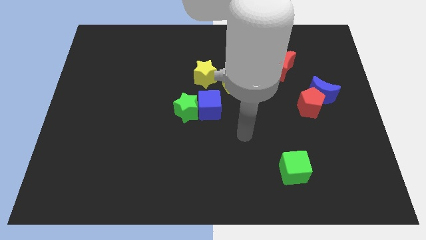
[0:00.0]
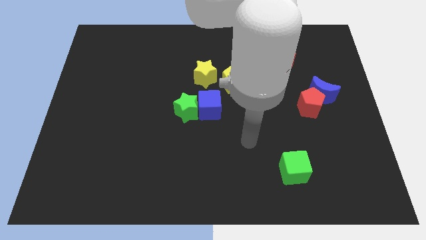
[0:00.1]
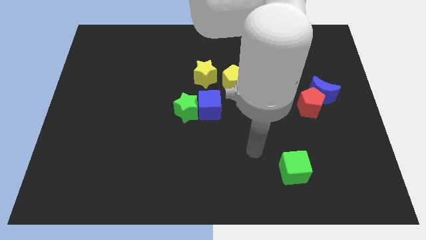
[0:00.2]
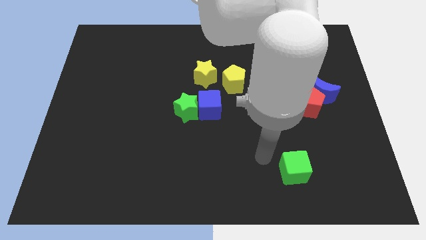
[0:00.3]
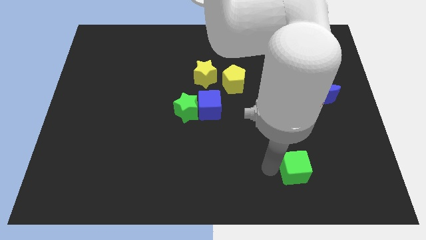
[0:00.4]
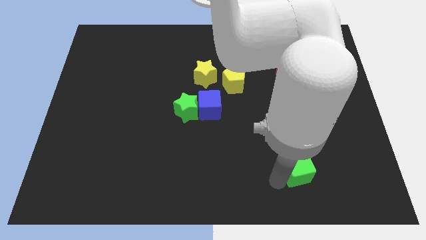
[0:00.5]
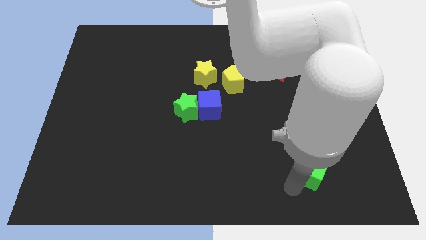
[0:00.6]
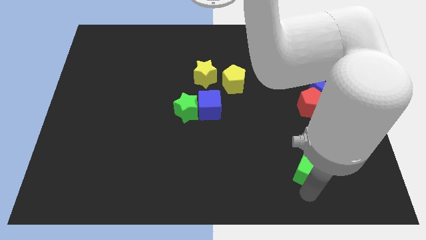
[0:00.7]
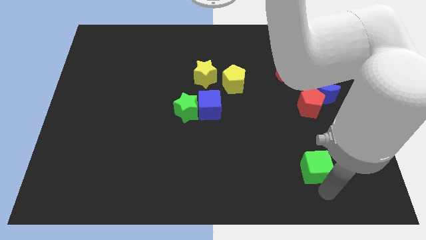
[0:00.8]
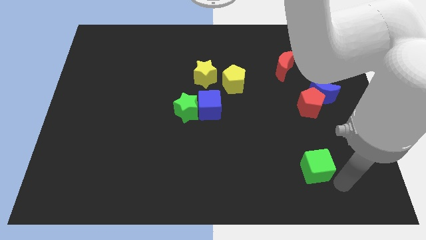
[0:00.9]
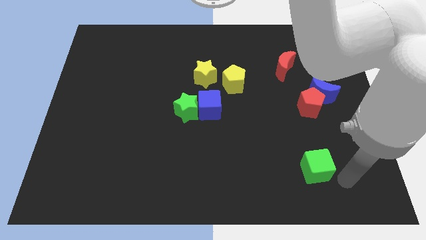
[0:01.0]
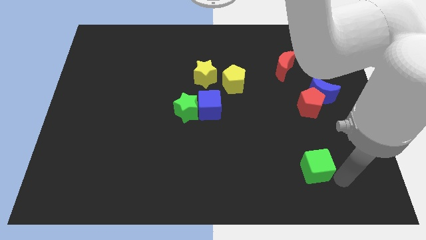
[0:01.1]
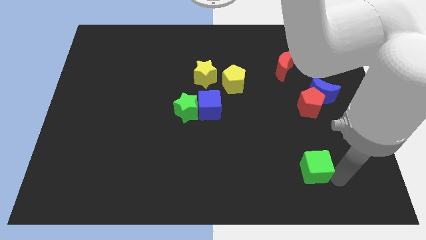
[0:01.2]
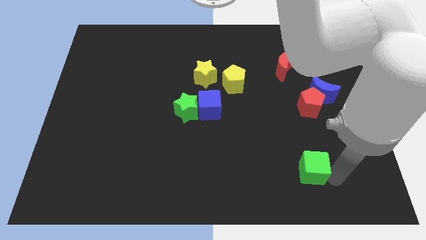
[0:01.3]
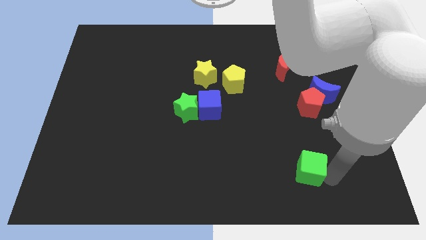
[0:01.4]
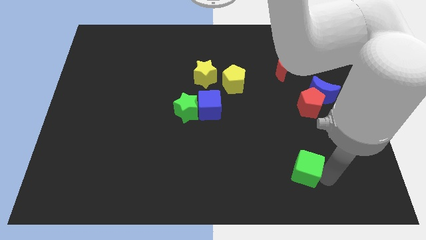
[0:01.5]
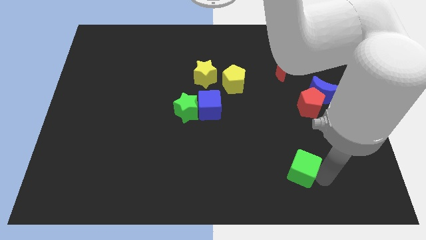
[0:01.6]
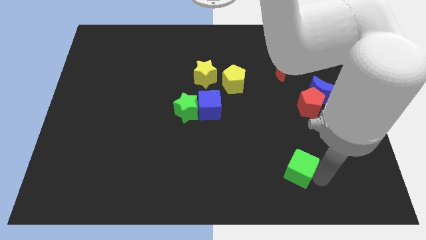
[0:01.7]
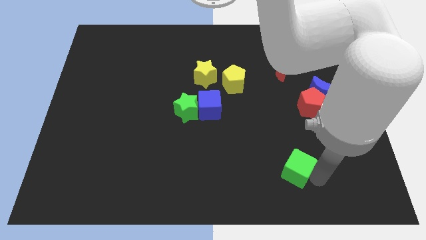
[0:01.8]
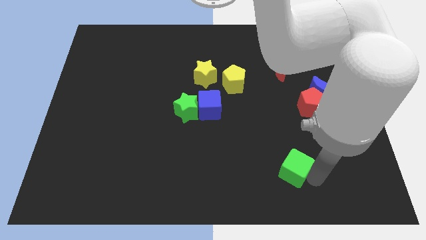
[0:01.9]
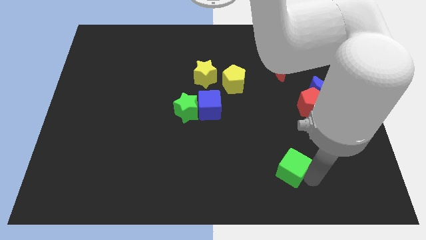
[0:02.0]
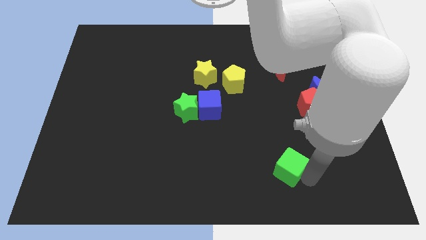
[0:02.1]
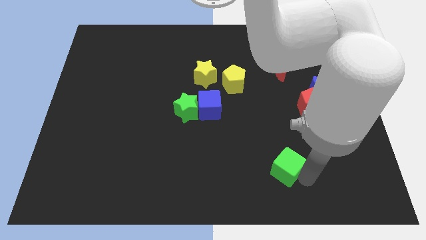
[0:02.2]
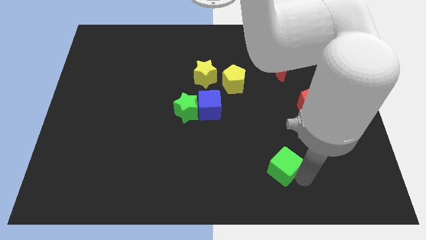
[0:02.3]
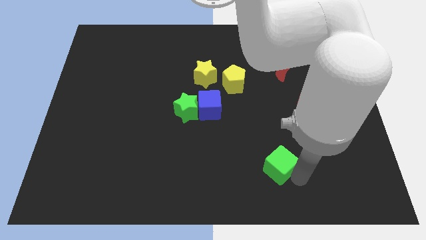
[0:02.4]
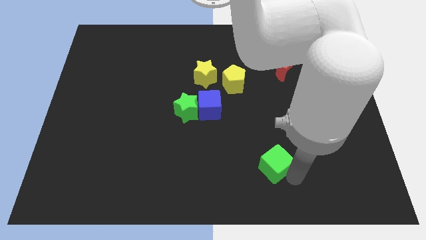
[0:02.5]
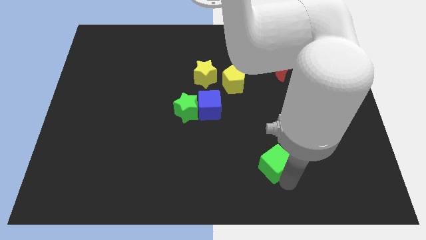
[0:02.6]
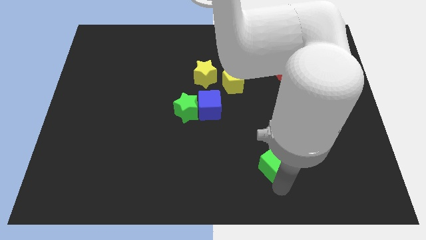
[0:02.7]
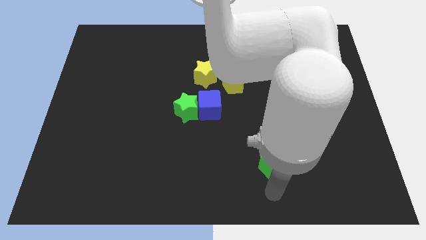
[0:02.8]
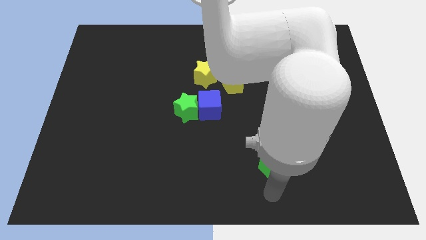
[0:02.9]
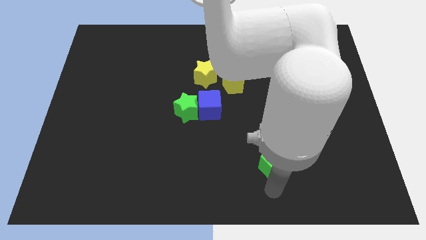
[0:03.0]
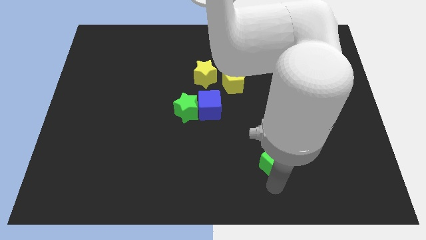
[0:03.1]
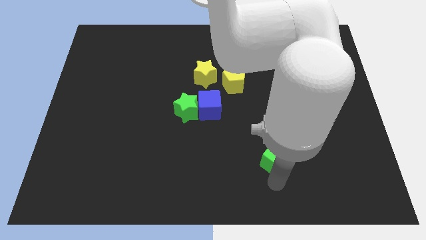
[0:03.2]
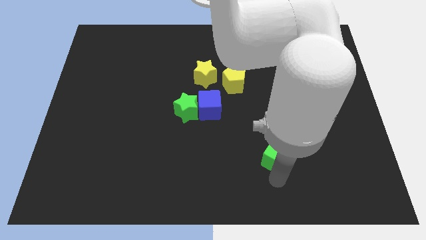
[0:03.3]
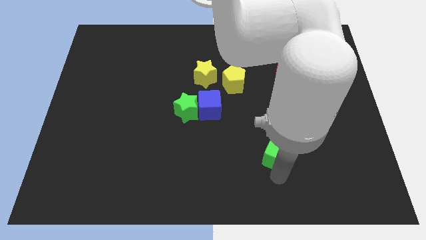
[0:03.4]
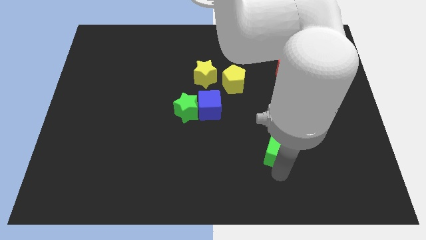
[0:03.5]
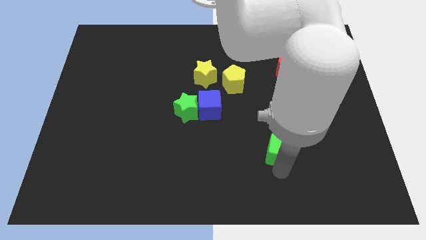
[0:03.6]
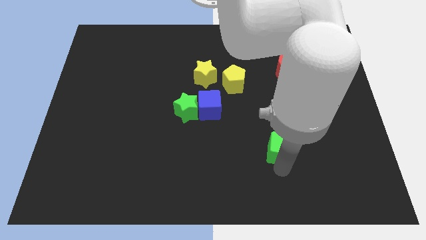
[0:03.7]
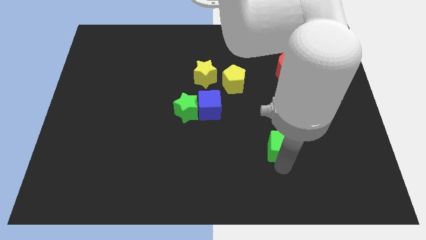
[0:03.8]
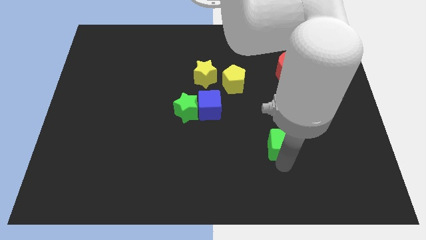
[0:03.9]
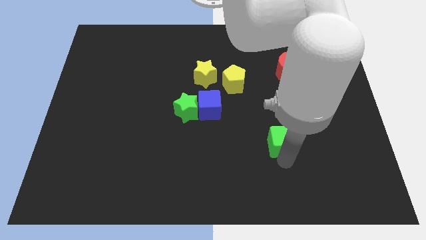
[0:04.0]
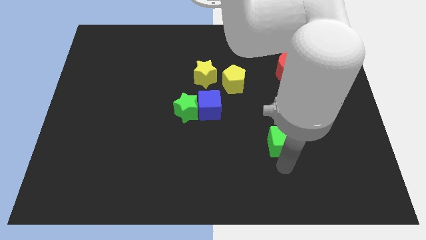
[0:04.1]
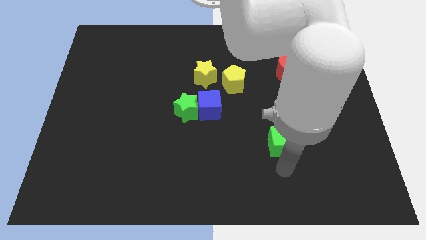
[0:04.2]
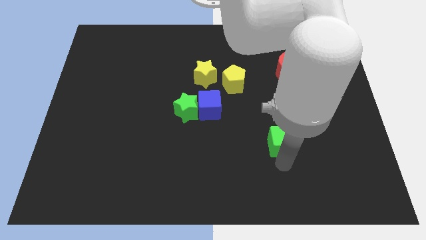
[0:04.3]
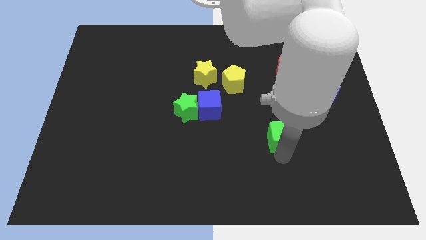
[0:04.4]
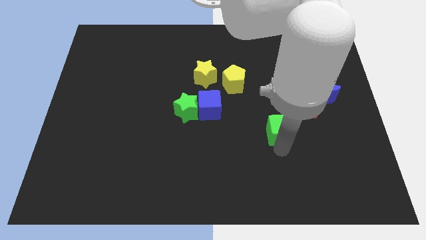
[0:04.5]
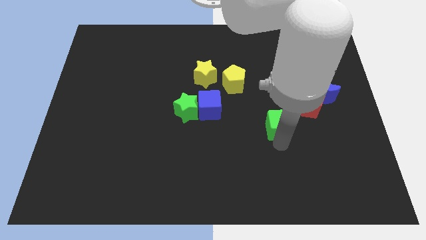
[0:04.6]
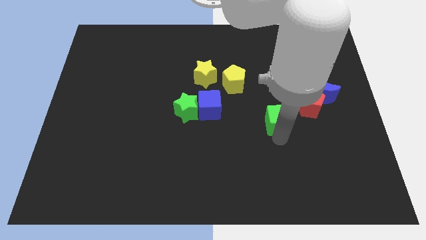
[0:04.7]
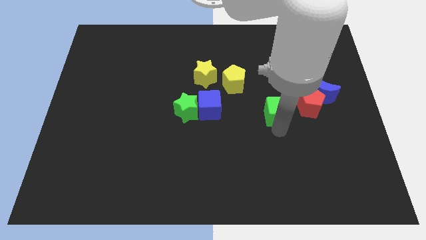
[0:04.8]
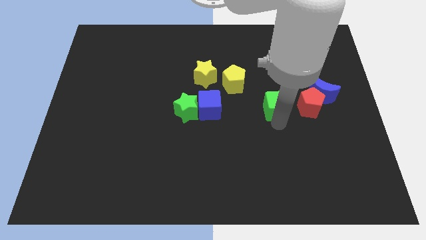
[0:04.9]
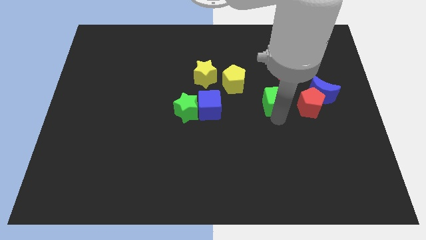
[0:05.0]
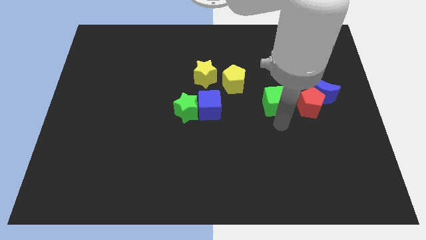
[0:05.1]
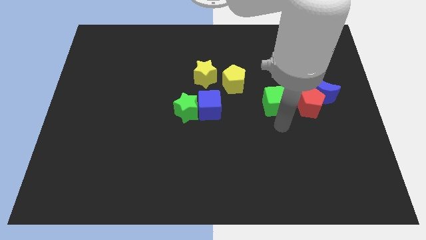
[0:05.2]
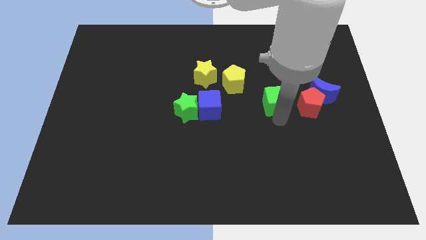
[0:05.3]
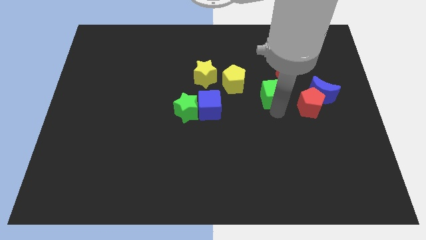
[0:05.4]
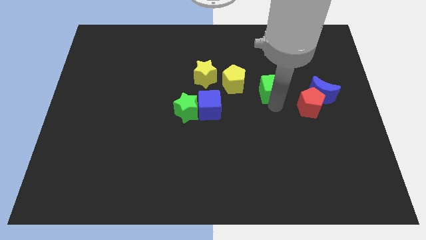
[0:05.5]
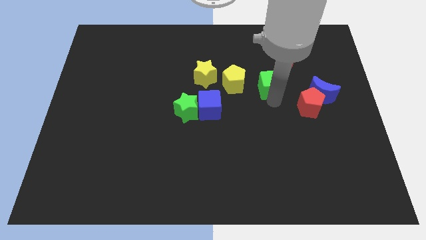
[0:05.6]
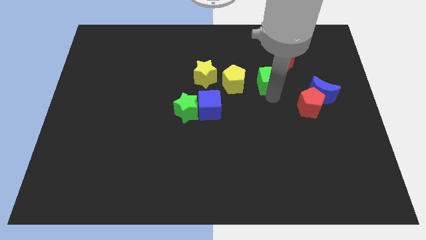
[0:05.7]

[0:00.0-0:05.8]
slide the green cube to the right side of the yellow star

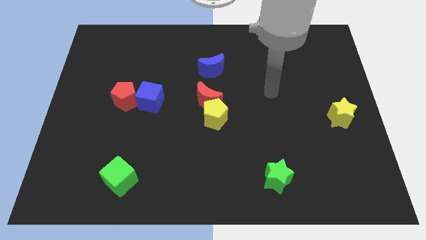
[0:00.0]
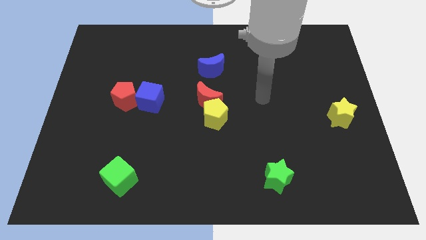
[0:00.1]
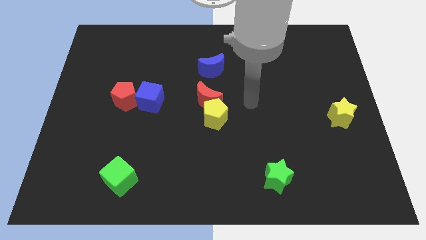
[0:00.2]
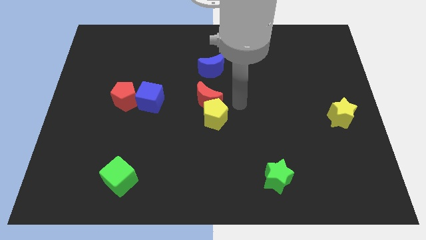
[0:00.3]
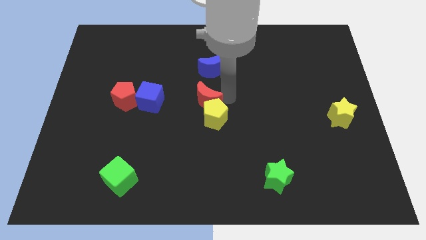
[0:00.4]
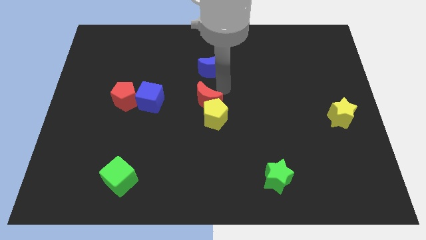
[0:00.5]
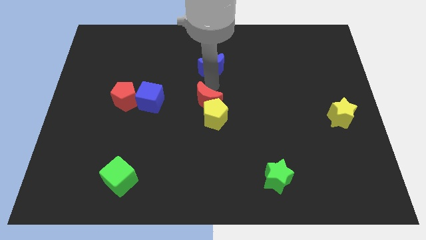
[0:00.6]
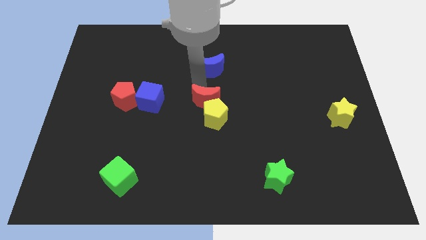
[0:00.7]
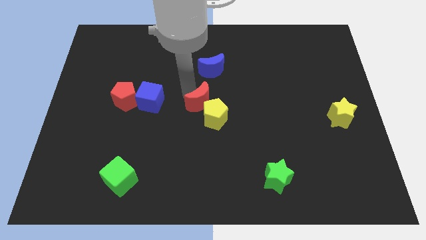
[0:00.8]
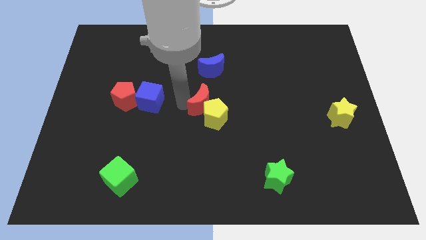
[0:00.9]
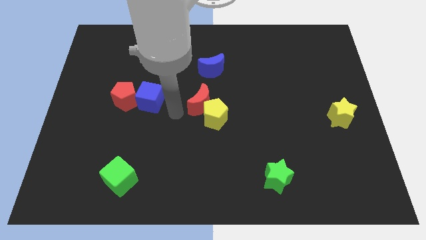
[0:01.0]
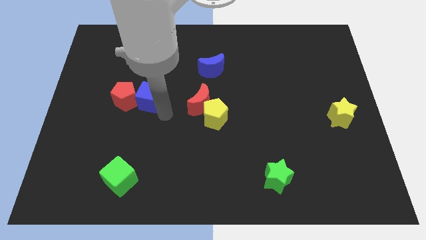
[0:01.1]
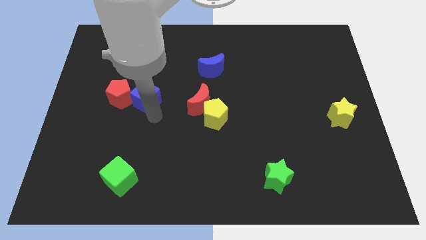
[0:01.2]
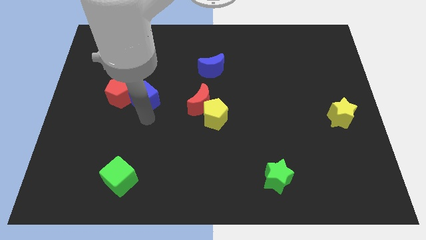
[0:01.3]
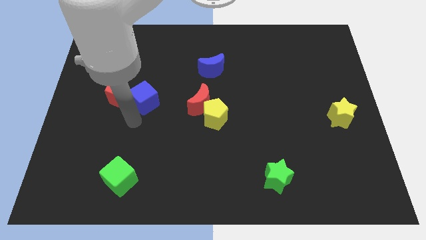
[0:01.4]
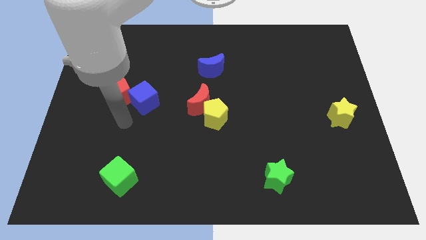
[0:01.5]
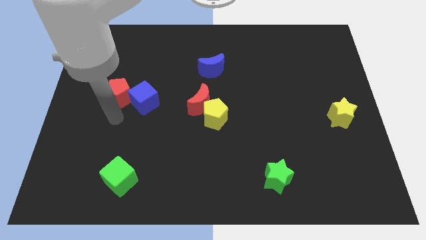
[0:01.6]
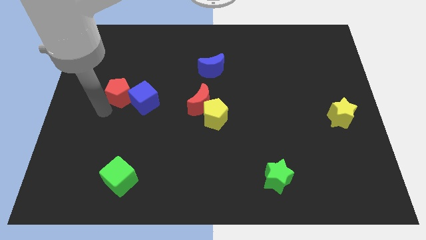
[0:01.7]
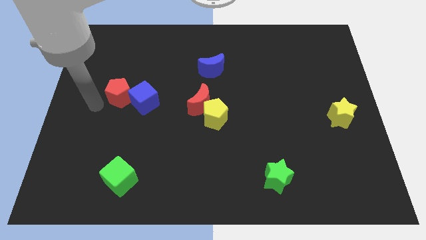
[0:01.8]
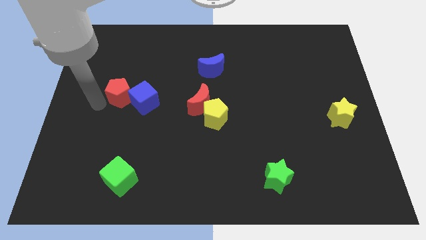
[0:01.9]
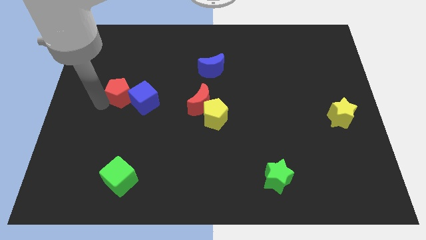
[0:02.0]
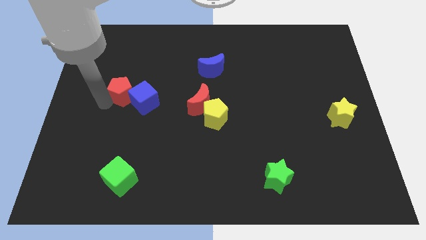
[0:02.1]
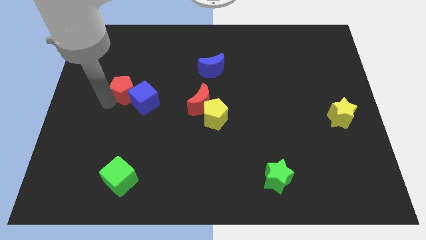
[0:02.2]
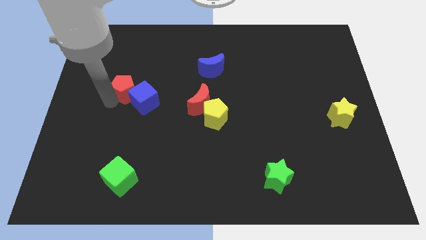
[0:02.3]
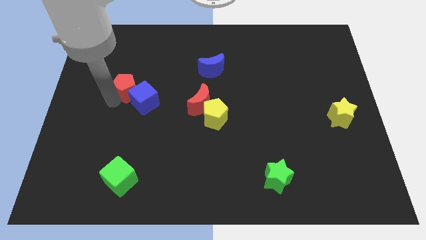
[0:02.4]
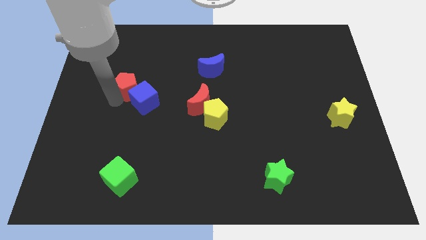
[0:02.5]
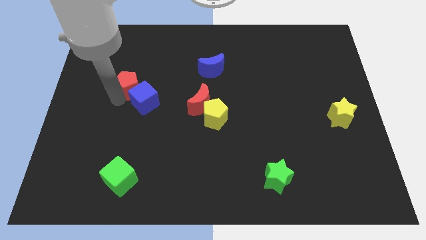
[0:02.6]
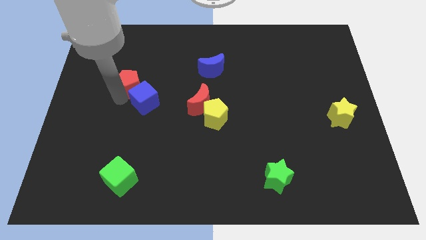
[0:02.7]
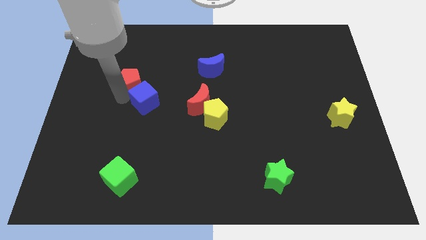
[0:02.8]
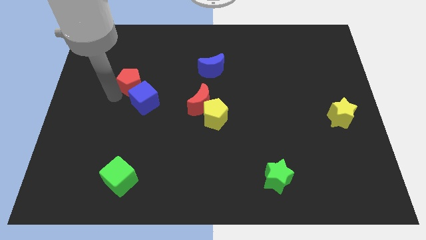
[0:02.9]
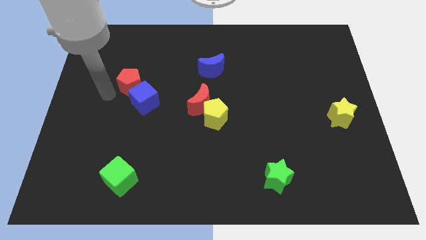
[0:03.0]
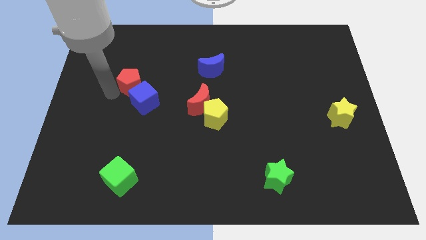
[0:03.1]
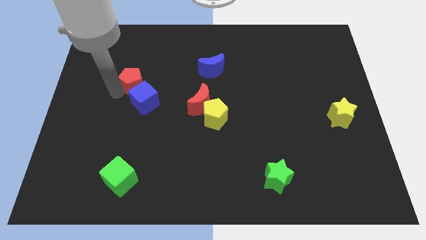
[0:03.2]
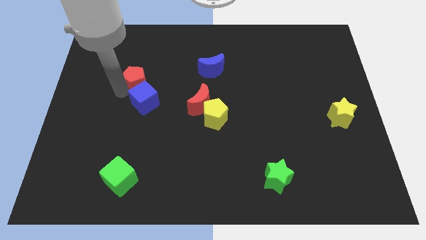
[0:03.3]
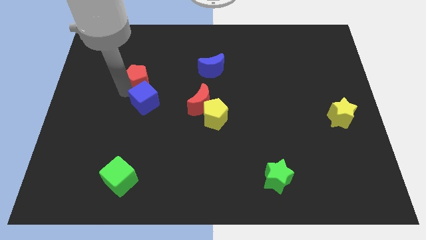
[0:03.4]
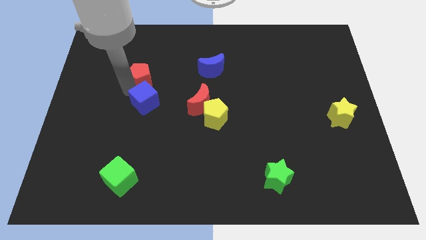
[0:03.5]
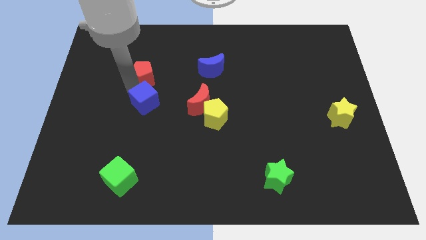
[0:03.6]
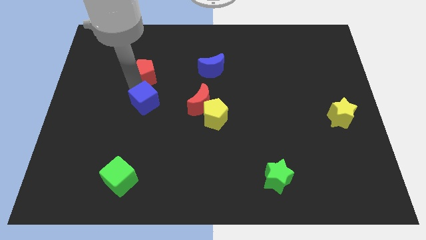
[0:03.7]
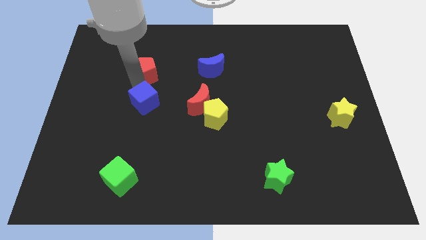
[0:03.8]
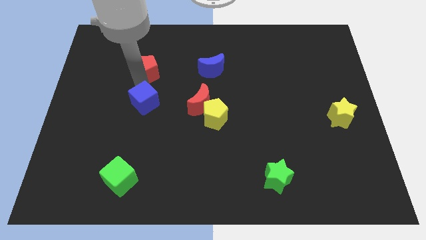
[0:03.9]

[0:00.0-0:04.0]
push the red pentagon just left of the blue moon
